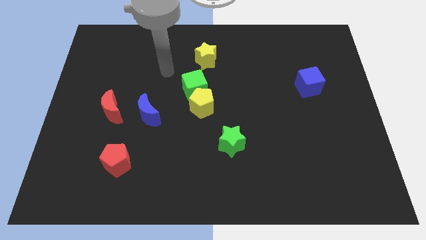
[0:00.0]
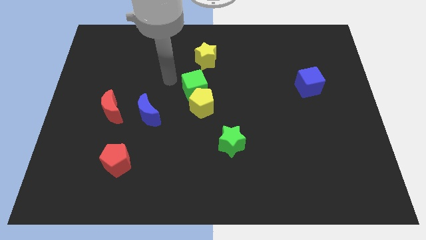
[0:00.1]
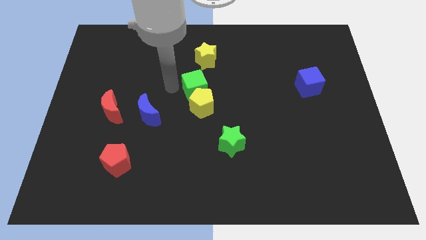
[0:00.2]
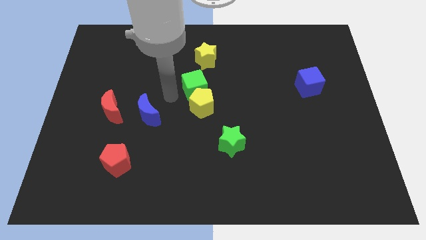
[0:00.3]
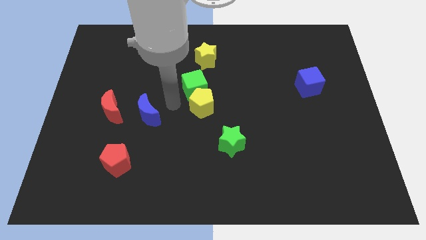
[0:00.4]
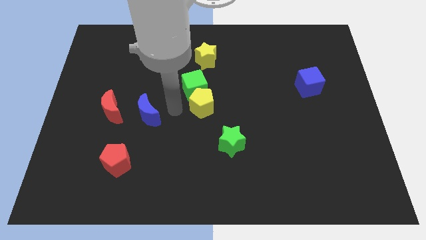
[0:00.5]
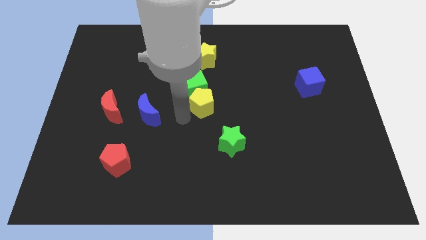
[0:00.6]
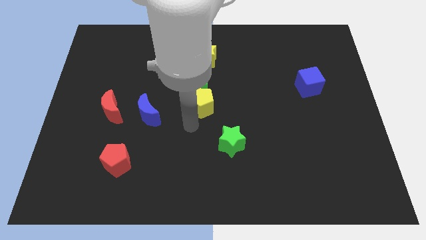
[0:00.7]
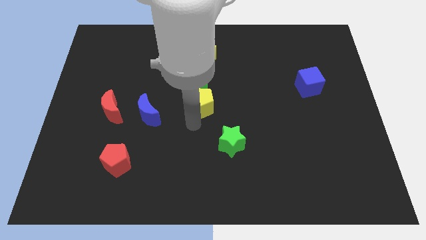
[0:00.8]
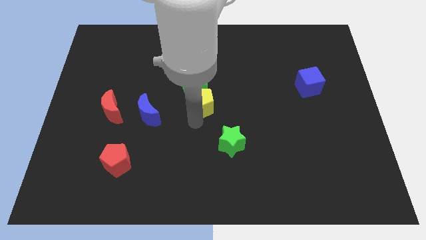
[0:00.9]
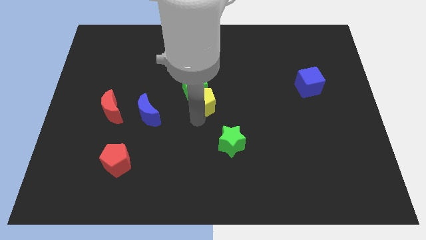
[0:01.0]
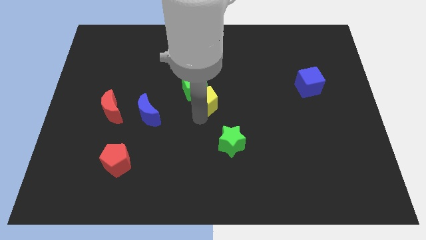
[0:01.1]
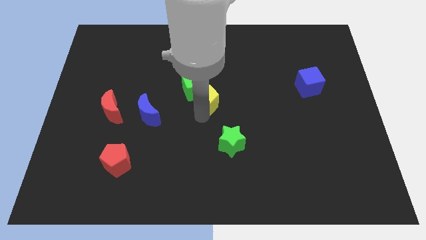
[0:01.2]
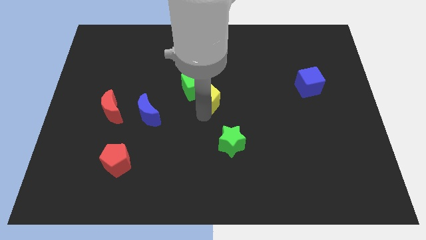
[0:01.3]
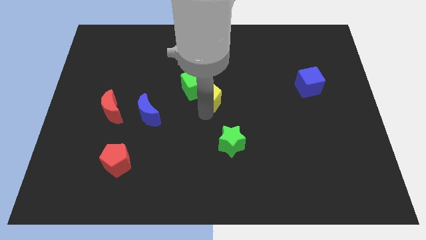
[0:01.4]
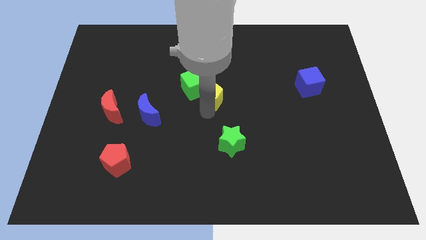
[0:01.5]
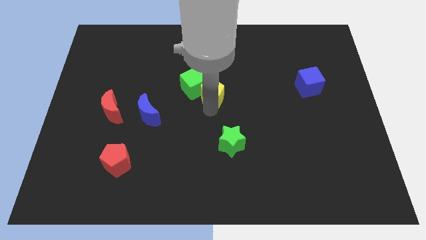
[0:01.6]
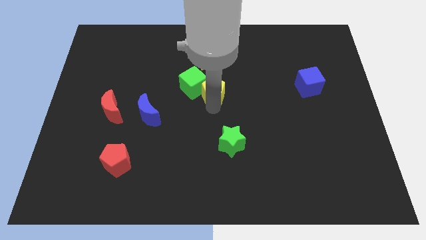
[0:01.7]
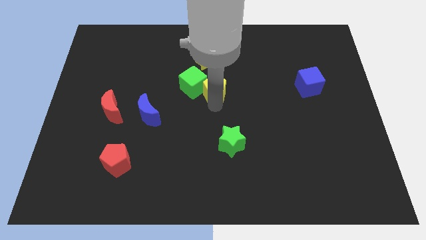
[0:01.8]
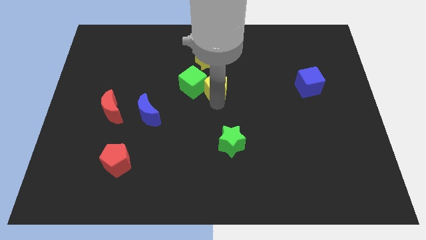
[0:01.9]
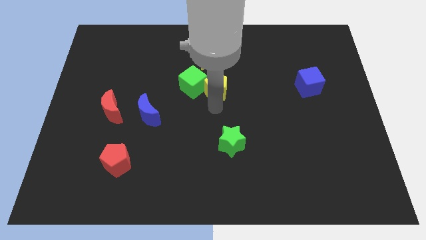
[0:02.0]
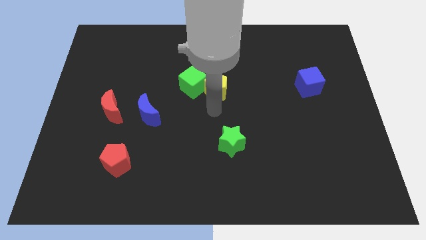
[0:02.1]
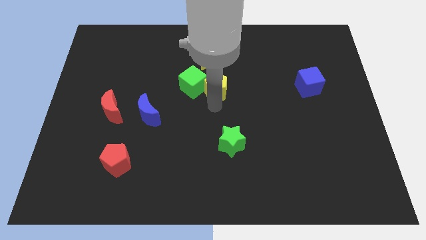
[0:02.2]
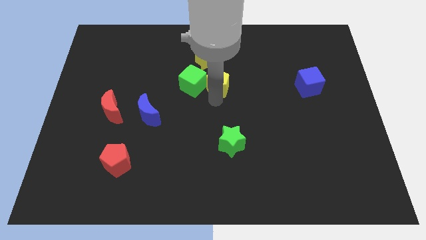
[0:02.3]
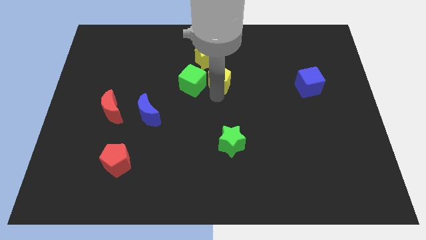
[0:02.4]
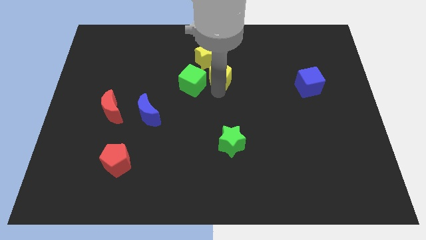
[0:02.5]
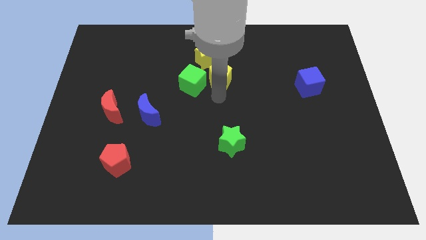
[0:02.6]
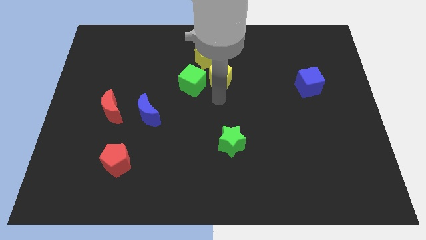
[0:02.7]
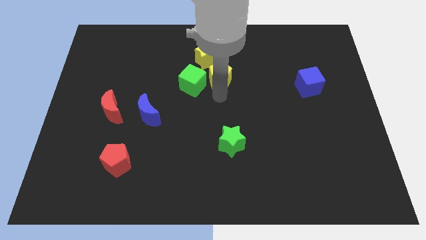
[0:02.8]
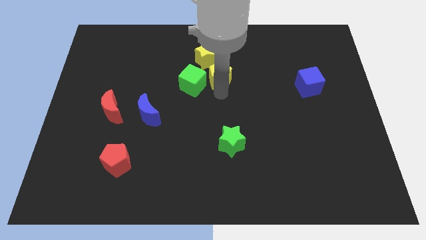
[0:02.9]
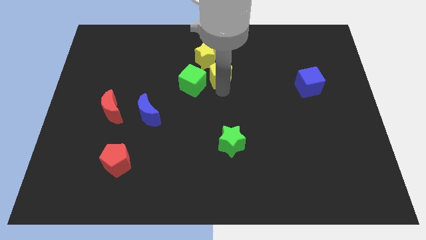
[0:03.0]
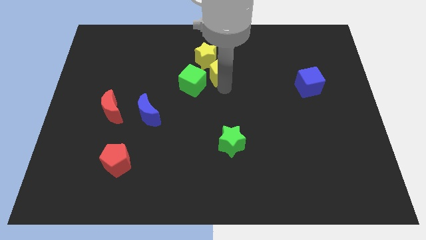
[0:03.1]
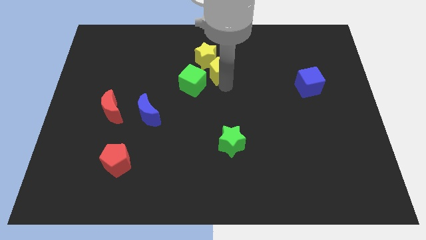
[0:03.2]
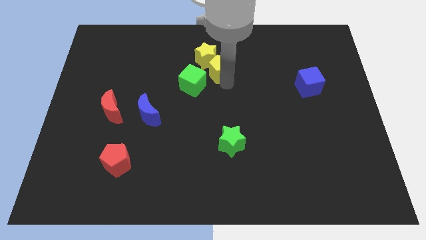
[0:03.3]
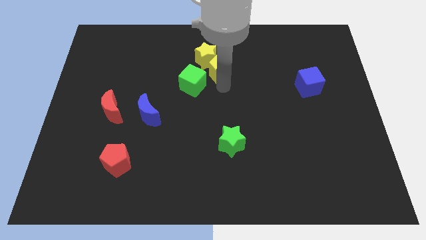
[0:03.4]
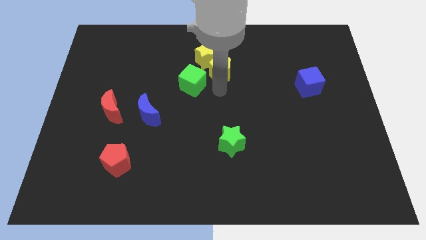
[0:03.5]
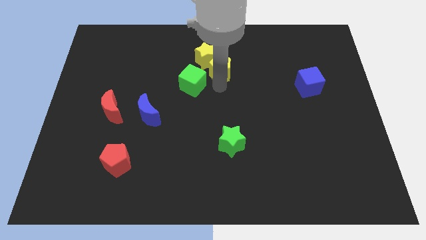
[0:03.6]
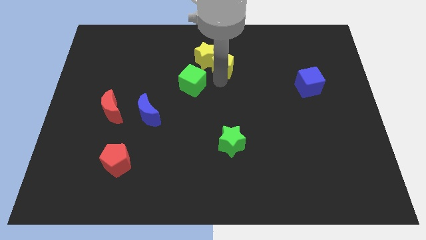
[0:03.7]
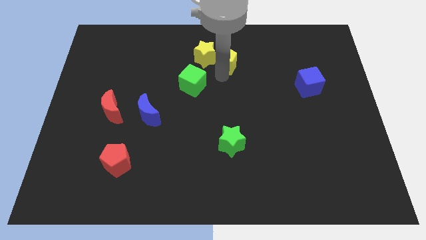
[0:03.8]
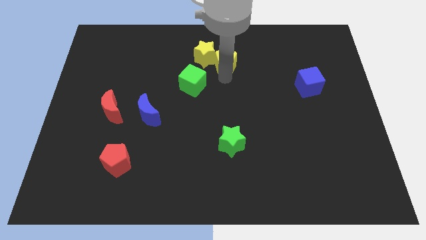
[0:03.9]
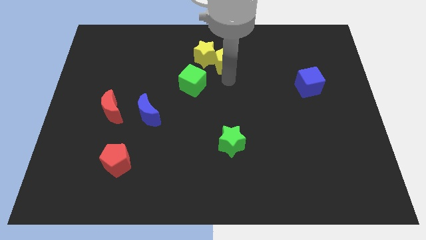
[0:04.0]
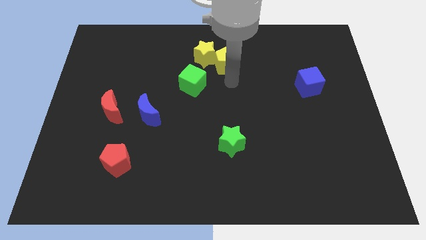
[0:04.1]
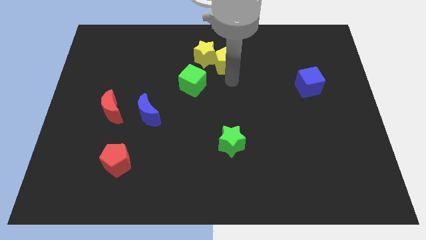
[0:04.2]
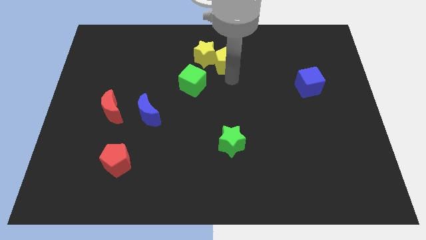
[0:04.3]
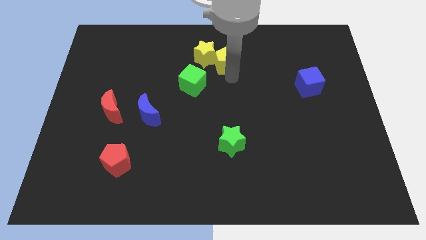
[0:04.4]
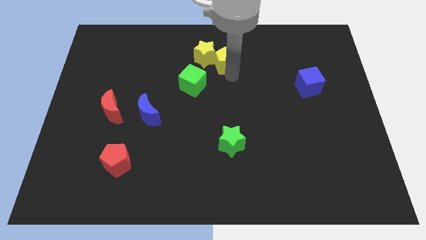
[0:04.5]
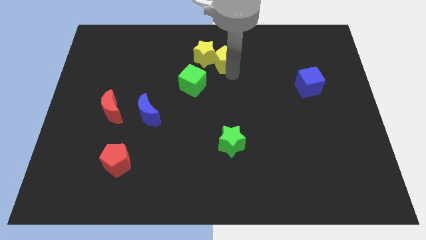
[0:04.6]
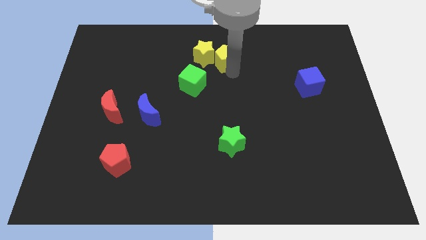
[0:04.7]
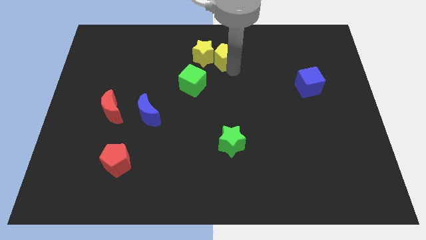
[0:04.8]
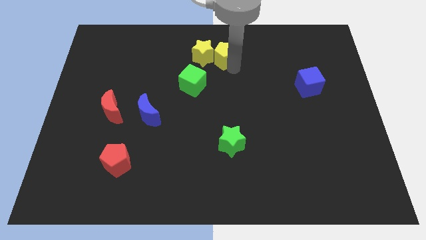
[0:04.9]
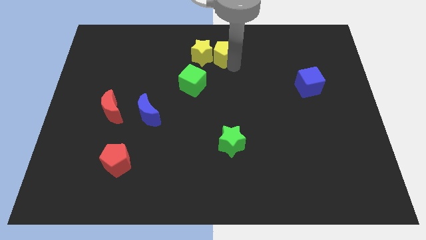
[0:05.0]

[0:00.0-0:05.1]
put the yellow pentagon to the top

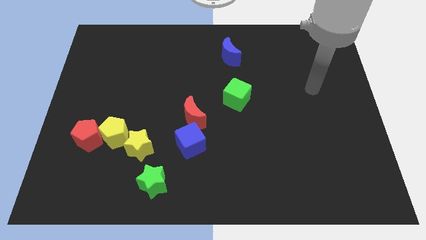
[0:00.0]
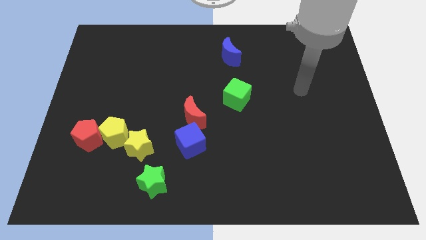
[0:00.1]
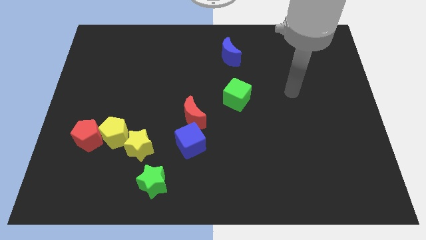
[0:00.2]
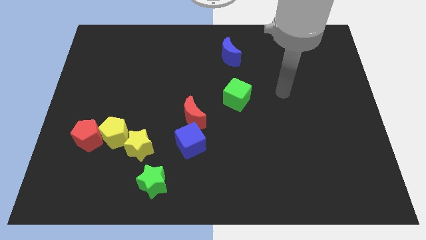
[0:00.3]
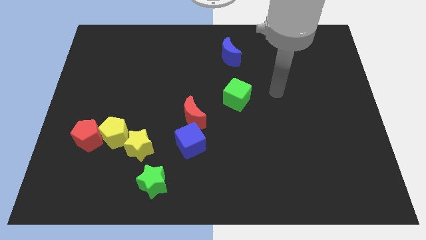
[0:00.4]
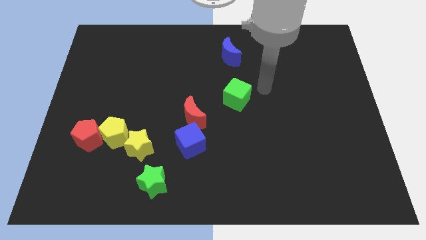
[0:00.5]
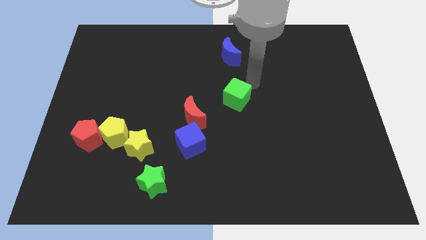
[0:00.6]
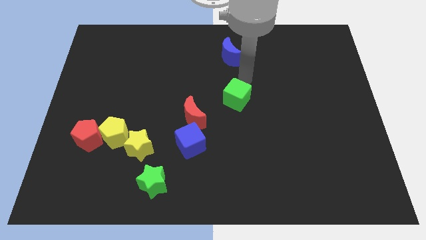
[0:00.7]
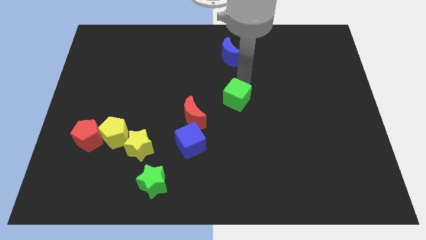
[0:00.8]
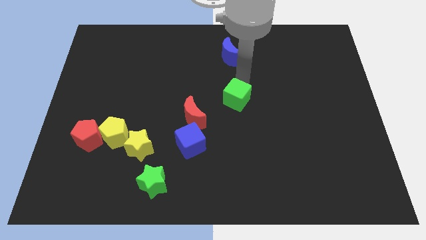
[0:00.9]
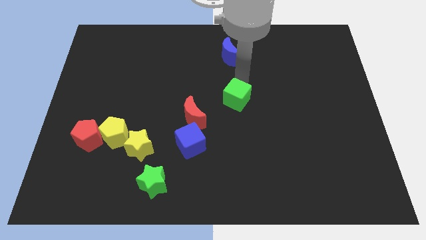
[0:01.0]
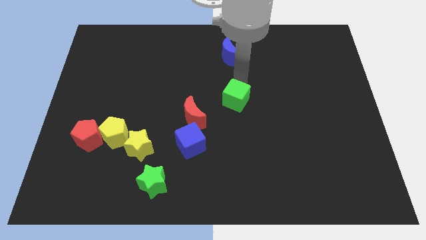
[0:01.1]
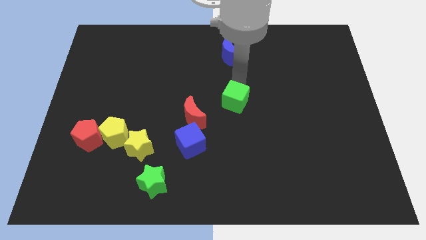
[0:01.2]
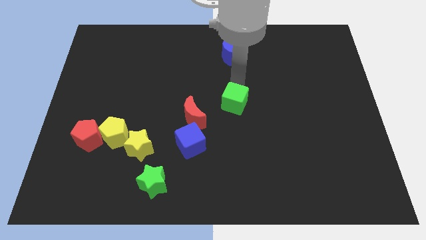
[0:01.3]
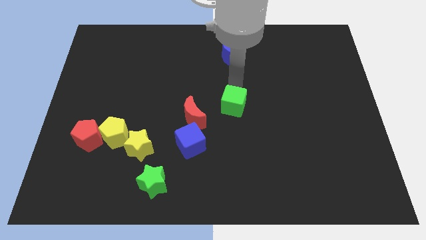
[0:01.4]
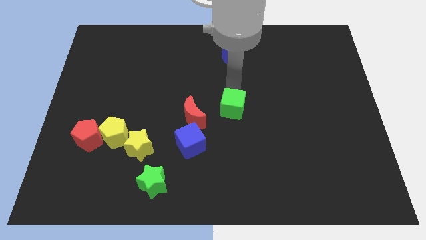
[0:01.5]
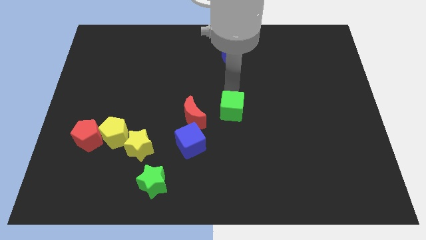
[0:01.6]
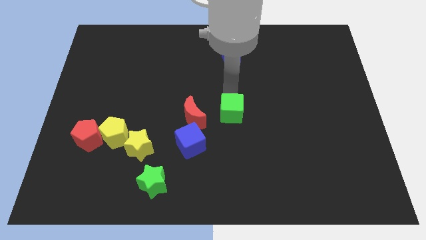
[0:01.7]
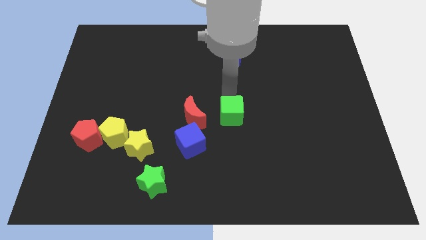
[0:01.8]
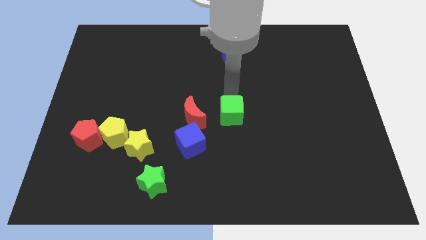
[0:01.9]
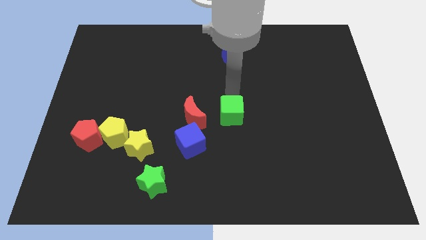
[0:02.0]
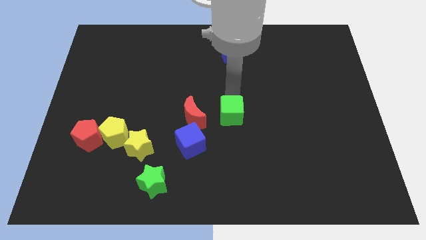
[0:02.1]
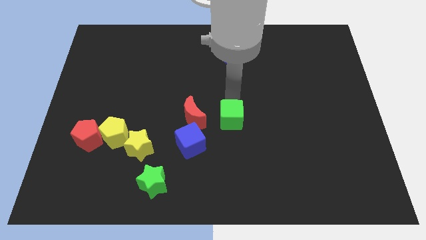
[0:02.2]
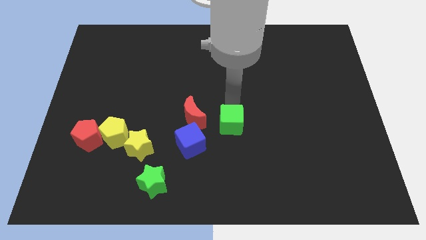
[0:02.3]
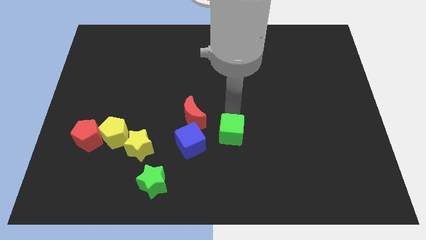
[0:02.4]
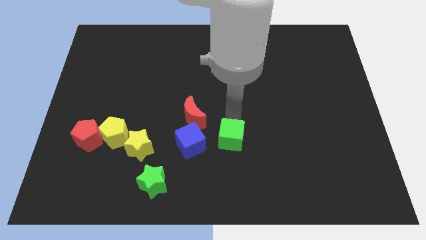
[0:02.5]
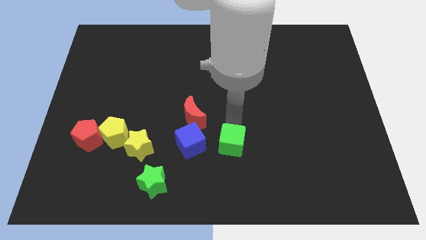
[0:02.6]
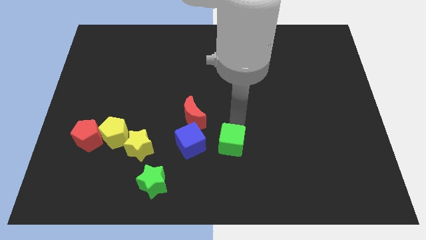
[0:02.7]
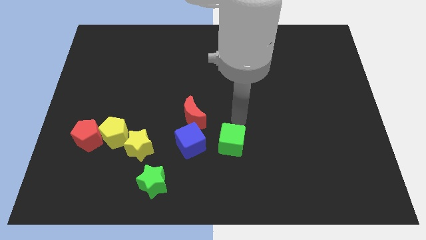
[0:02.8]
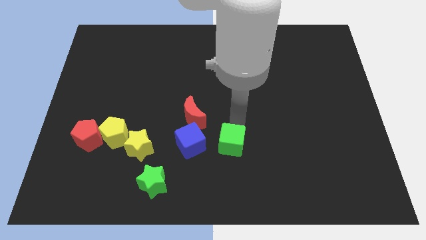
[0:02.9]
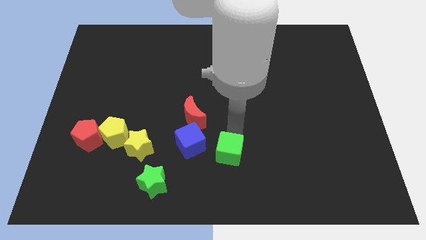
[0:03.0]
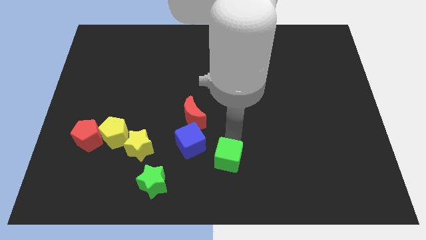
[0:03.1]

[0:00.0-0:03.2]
push the green cube to the bottom
